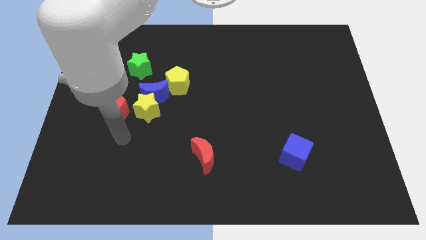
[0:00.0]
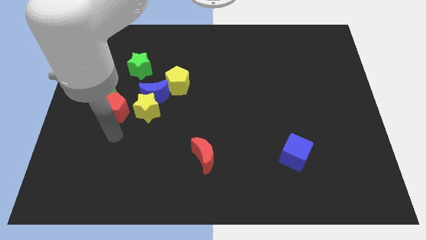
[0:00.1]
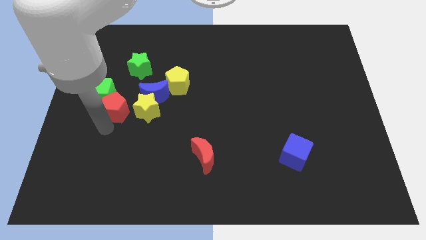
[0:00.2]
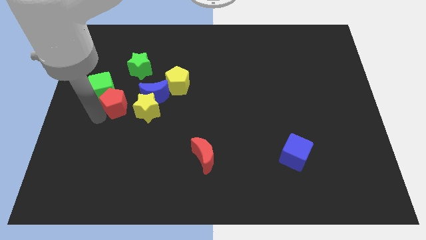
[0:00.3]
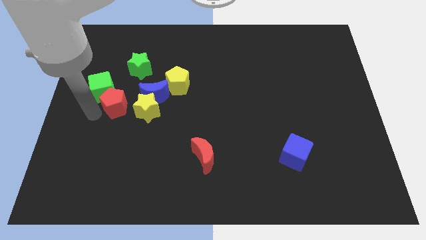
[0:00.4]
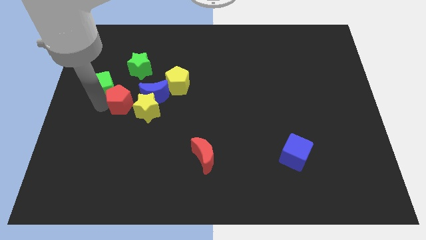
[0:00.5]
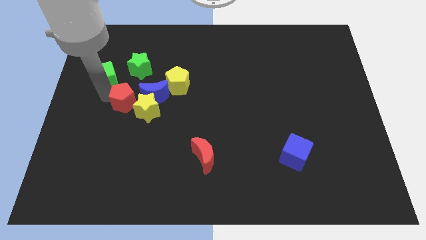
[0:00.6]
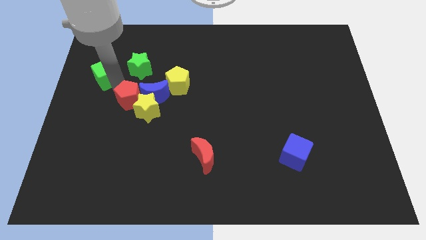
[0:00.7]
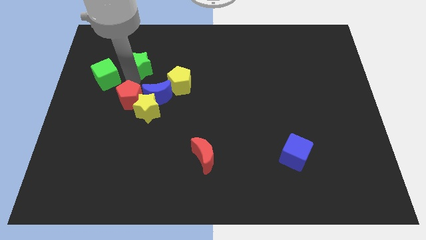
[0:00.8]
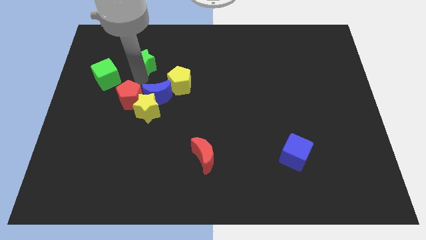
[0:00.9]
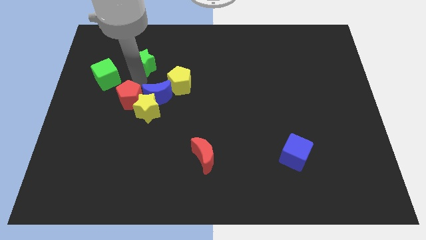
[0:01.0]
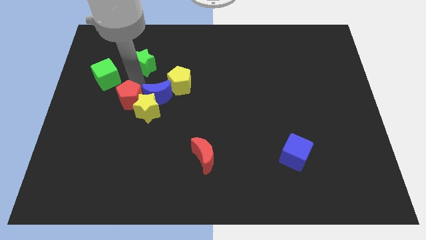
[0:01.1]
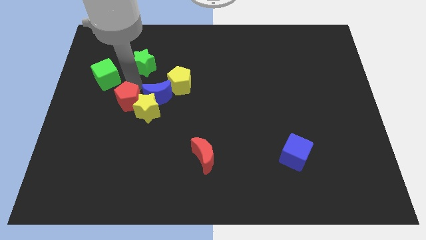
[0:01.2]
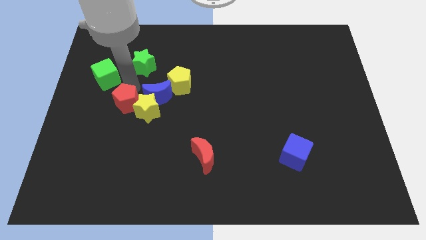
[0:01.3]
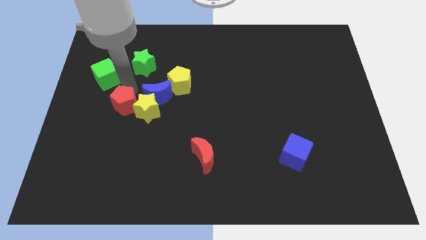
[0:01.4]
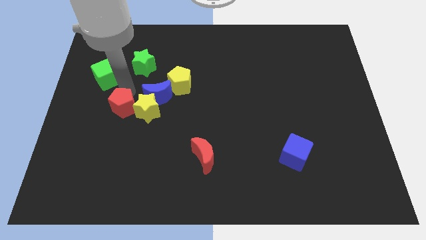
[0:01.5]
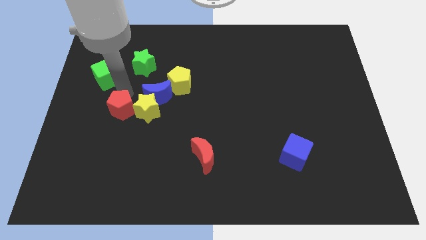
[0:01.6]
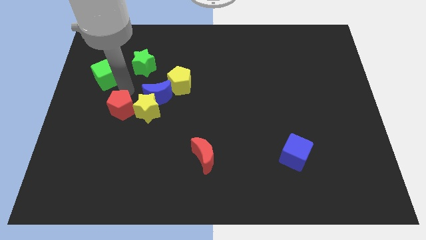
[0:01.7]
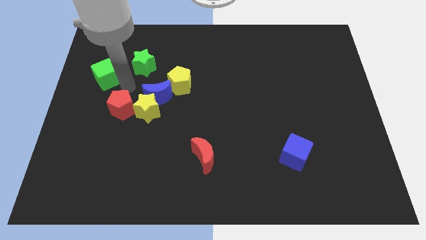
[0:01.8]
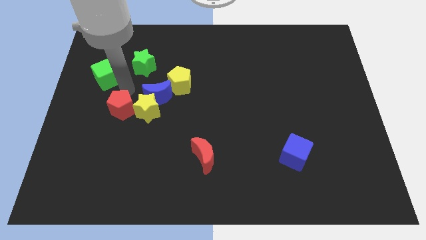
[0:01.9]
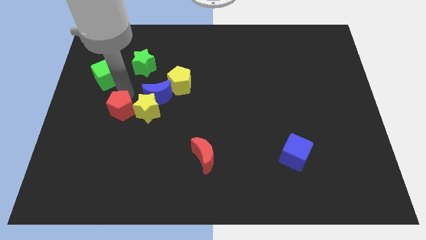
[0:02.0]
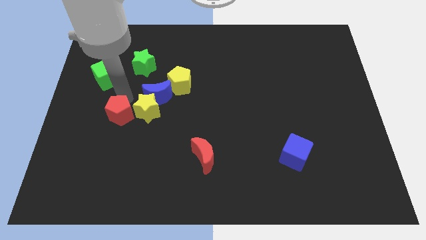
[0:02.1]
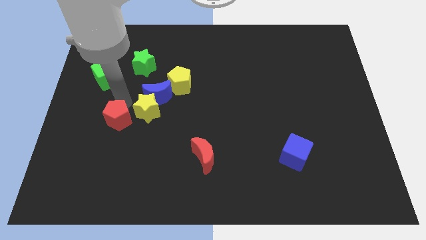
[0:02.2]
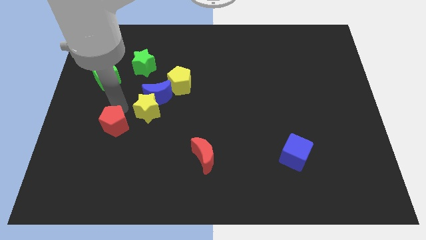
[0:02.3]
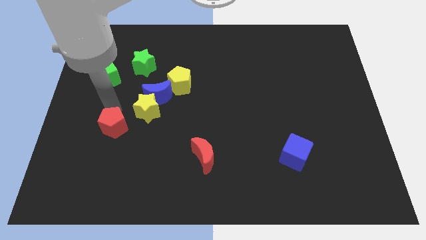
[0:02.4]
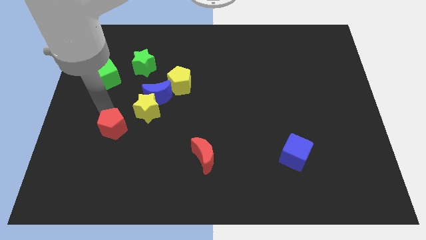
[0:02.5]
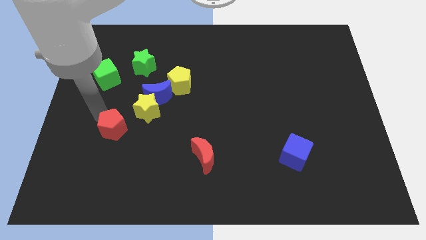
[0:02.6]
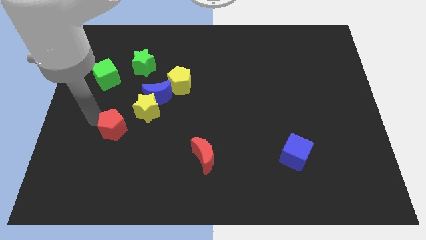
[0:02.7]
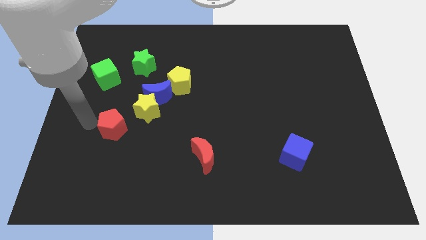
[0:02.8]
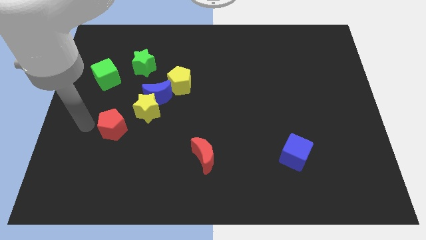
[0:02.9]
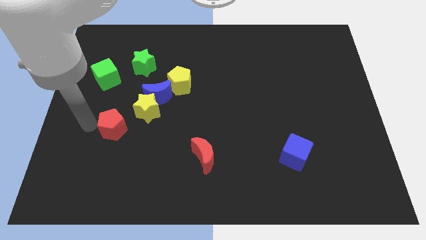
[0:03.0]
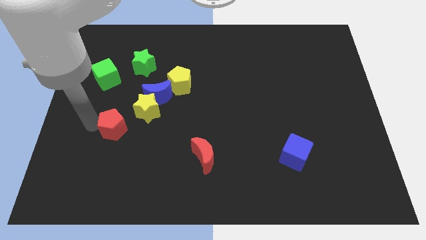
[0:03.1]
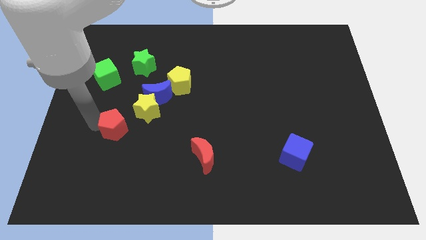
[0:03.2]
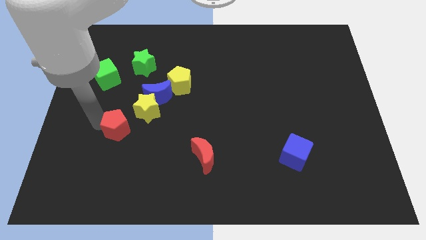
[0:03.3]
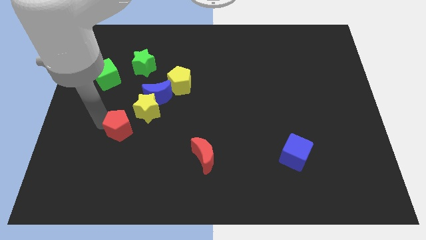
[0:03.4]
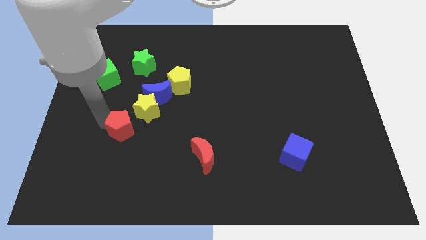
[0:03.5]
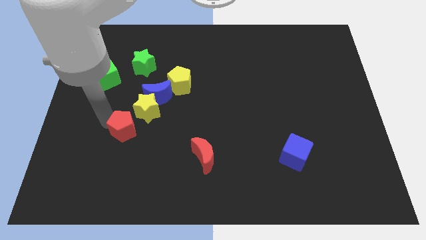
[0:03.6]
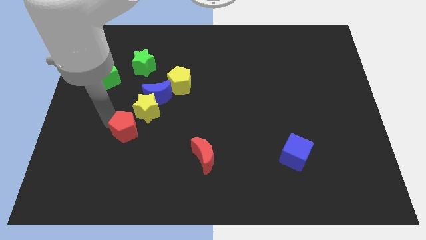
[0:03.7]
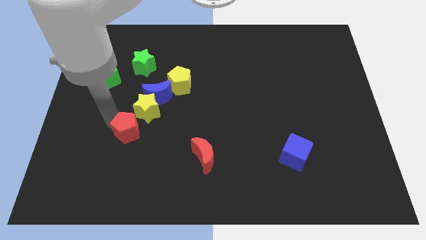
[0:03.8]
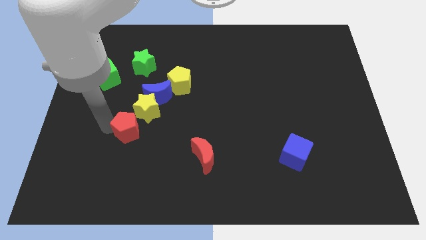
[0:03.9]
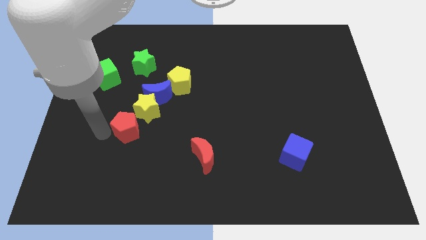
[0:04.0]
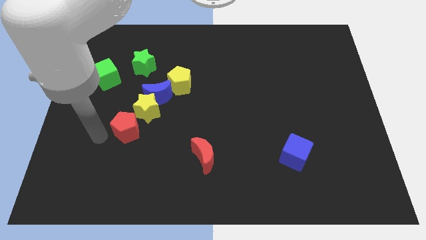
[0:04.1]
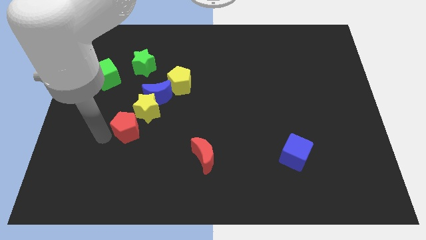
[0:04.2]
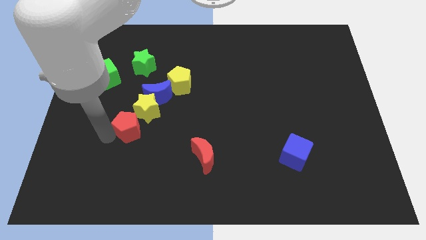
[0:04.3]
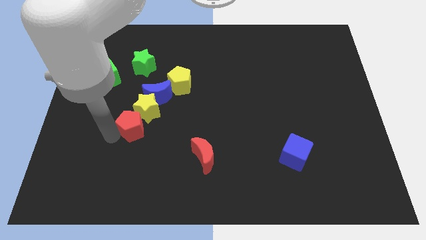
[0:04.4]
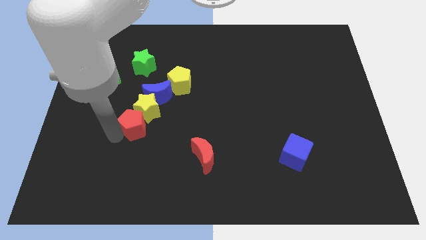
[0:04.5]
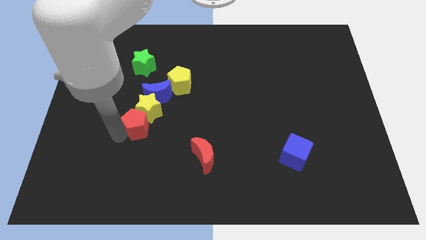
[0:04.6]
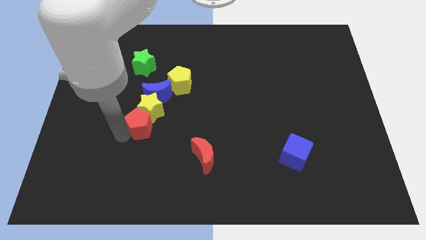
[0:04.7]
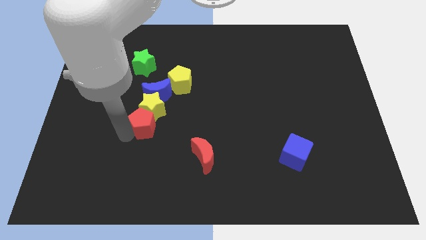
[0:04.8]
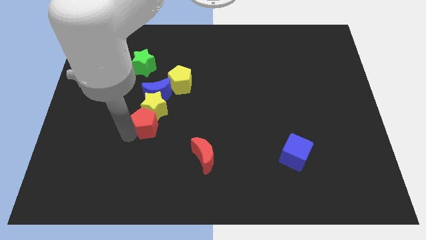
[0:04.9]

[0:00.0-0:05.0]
move the red pentagon to the right slightly

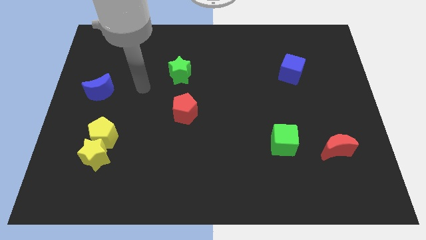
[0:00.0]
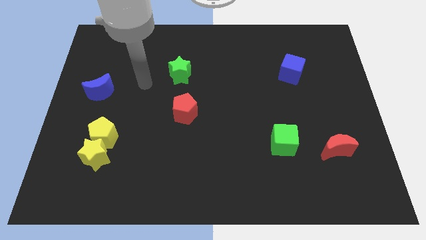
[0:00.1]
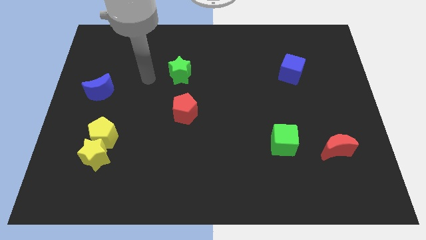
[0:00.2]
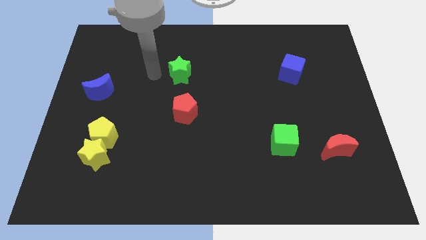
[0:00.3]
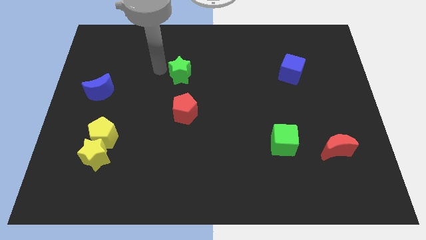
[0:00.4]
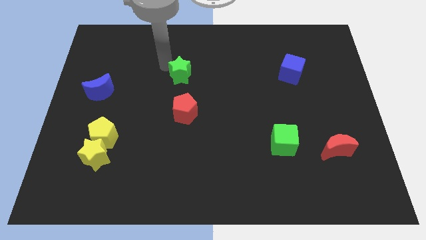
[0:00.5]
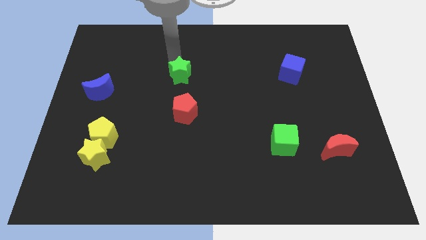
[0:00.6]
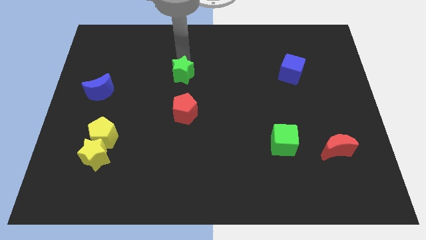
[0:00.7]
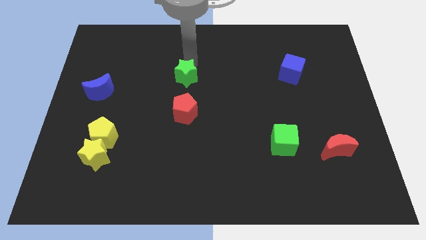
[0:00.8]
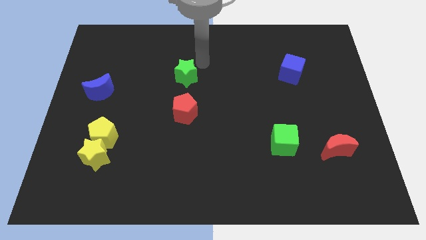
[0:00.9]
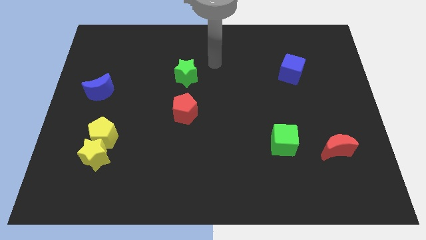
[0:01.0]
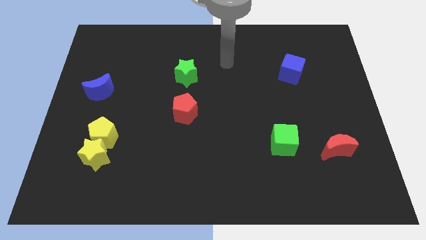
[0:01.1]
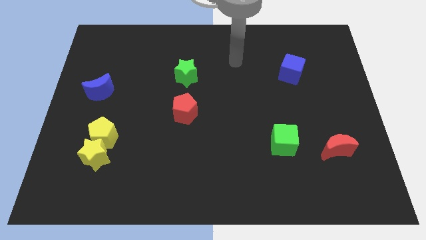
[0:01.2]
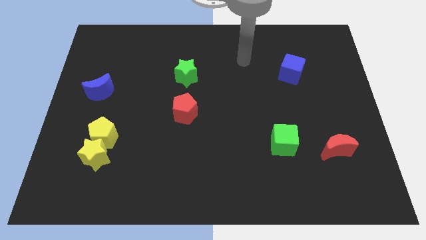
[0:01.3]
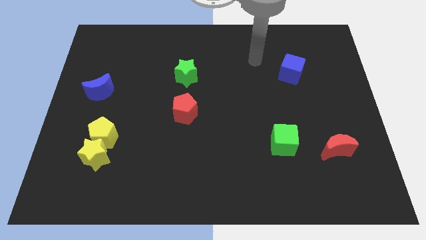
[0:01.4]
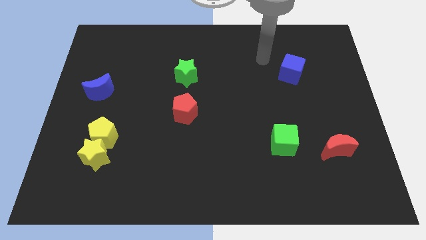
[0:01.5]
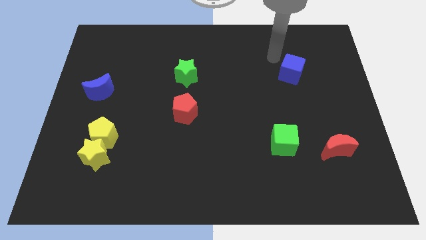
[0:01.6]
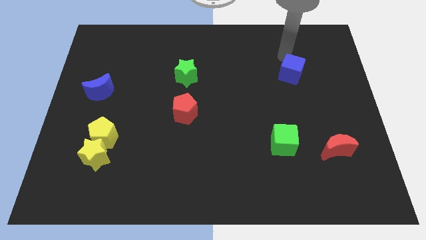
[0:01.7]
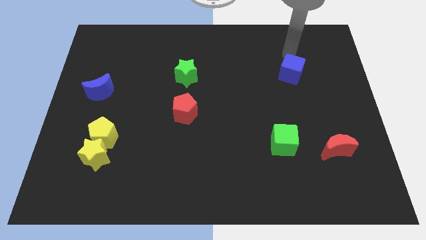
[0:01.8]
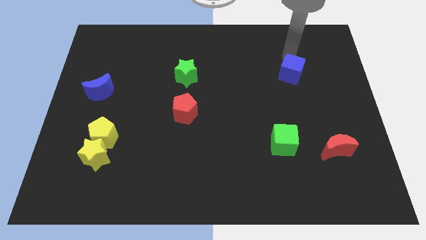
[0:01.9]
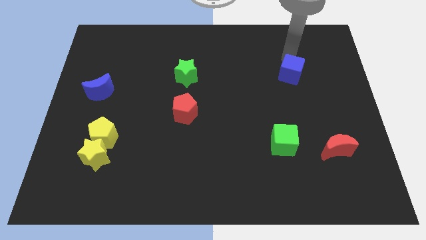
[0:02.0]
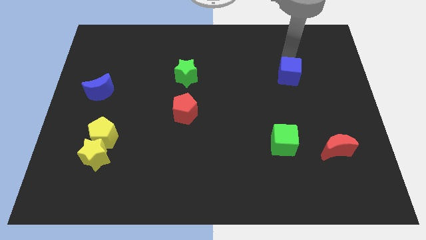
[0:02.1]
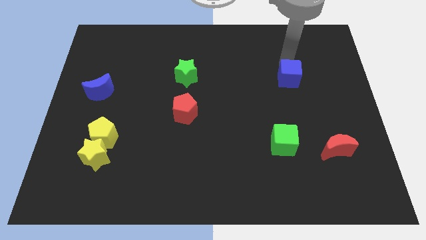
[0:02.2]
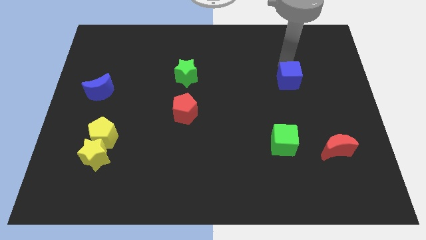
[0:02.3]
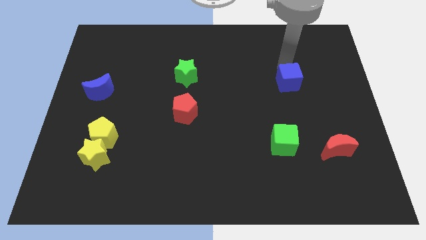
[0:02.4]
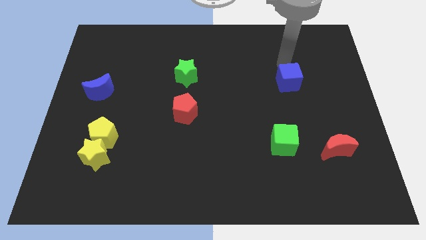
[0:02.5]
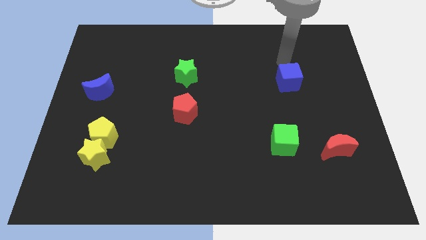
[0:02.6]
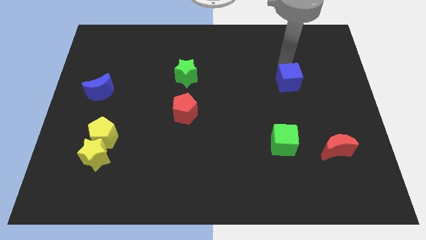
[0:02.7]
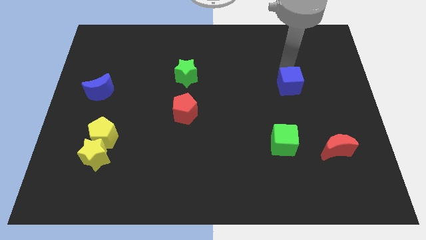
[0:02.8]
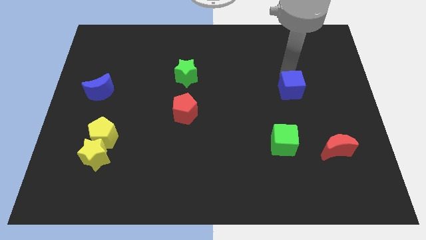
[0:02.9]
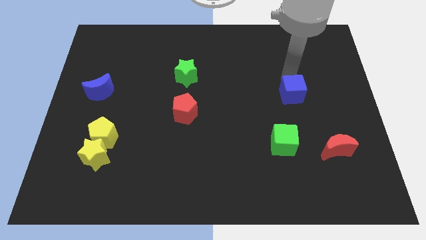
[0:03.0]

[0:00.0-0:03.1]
slightly slide the blue cube downwards

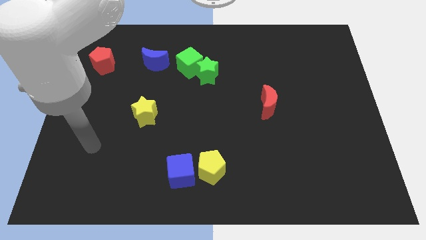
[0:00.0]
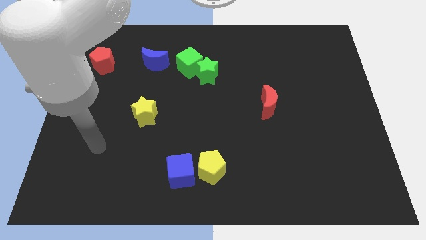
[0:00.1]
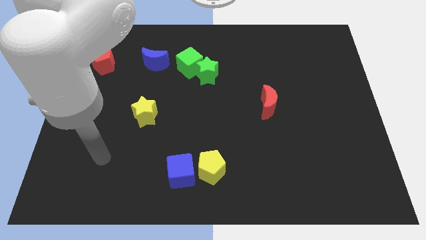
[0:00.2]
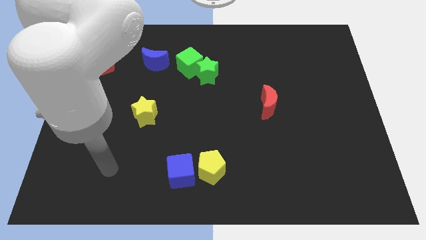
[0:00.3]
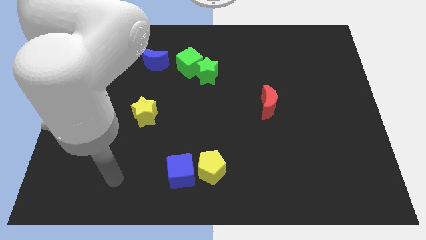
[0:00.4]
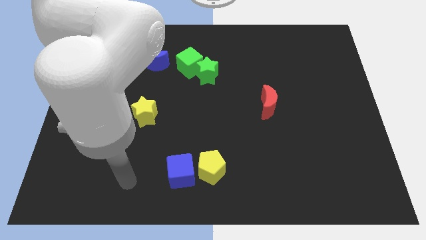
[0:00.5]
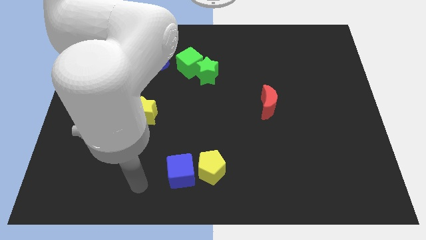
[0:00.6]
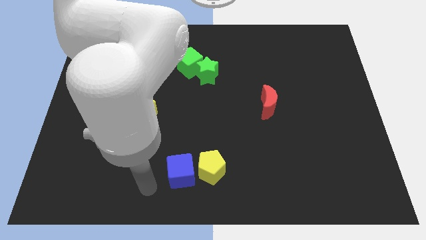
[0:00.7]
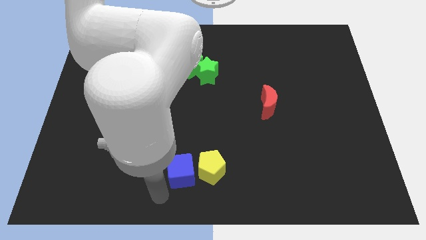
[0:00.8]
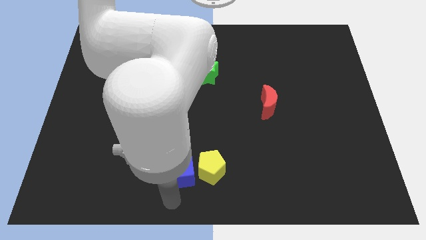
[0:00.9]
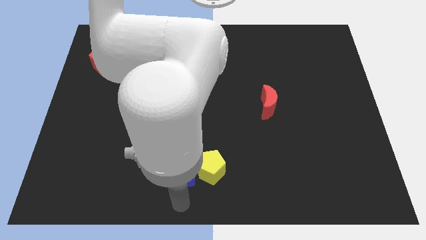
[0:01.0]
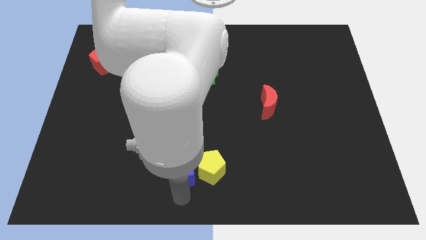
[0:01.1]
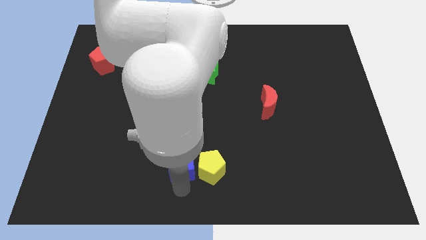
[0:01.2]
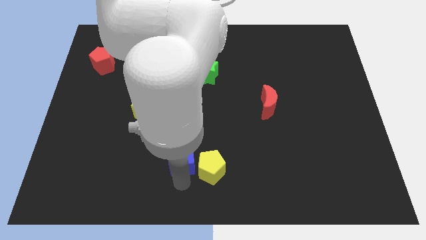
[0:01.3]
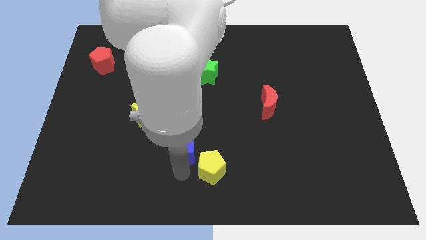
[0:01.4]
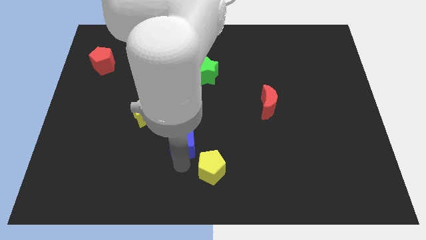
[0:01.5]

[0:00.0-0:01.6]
move the blue cube a little bit up
